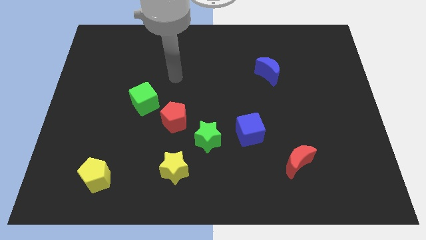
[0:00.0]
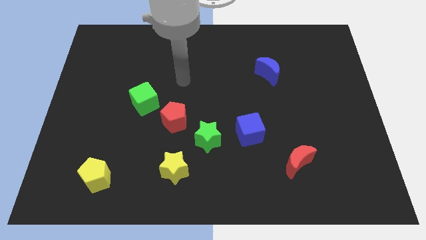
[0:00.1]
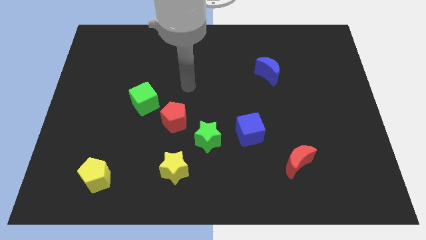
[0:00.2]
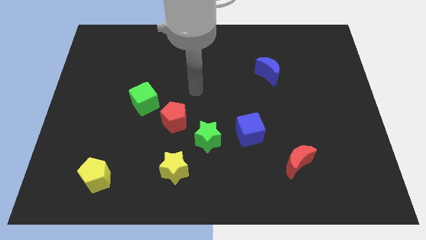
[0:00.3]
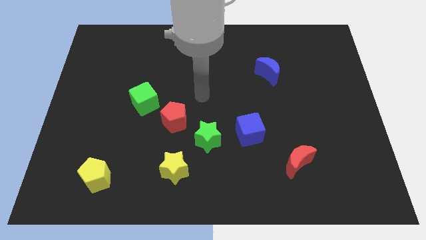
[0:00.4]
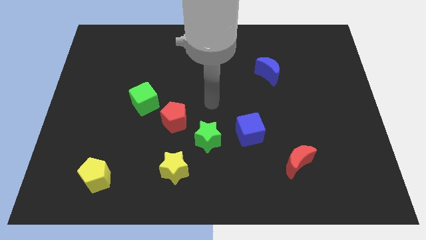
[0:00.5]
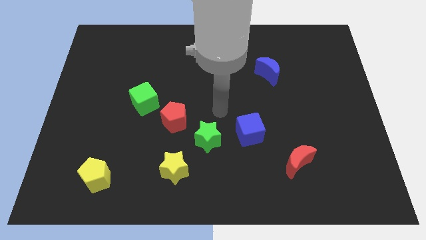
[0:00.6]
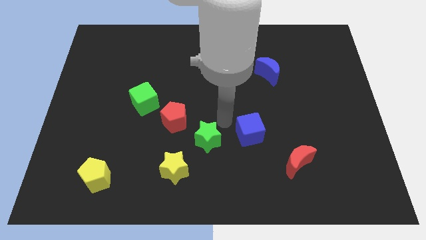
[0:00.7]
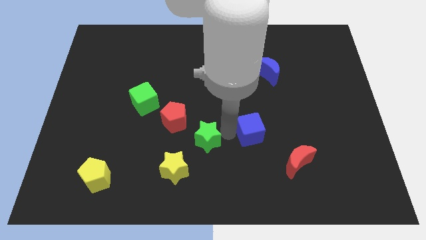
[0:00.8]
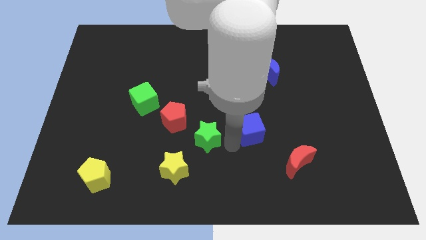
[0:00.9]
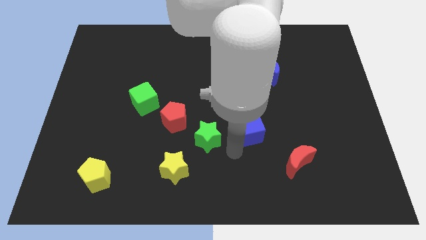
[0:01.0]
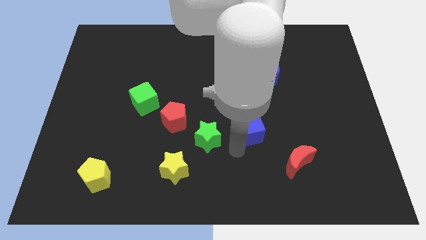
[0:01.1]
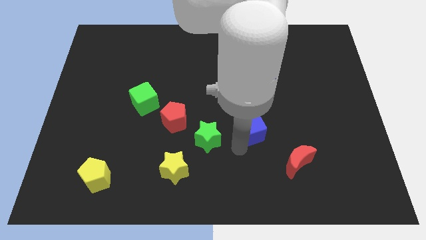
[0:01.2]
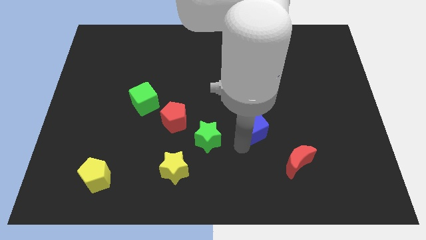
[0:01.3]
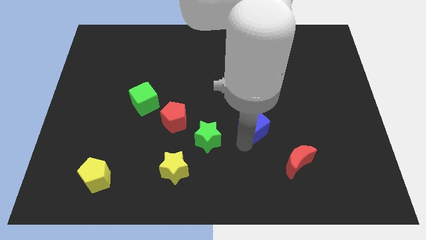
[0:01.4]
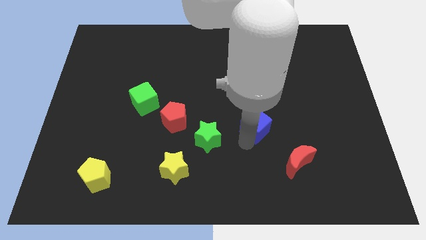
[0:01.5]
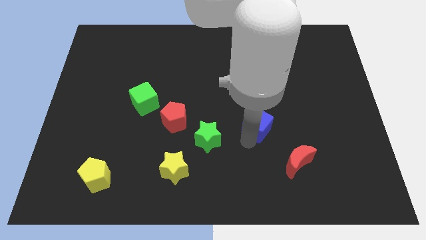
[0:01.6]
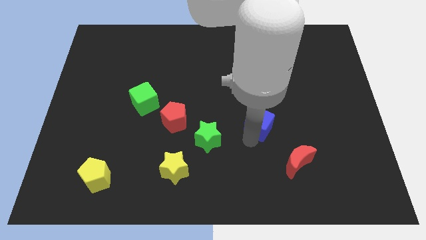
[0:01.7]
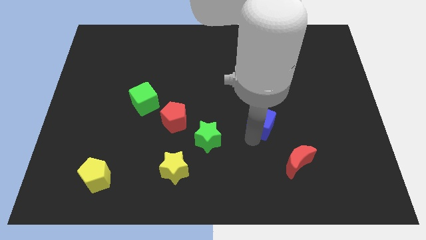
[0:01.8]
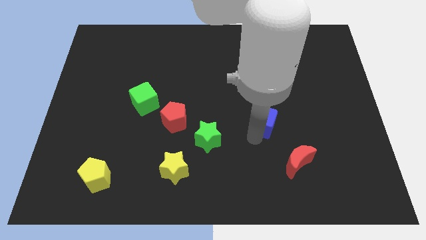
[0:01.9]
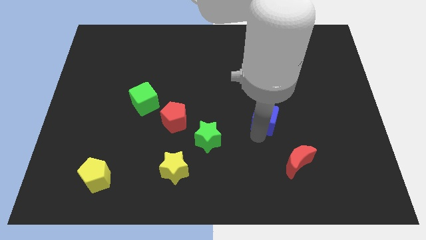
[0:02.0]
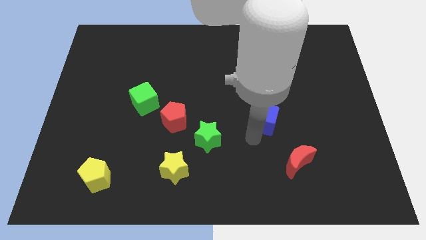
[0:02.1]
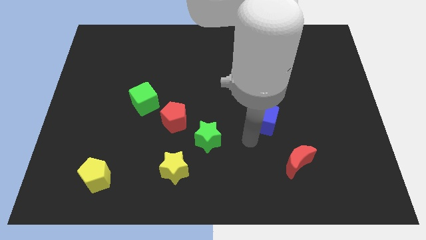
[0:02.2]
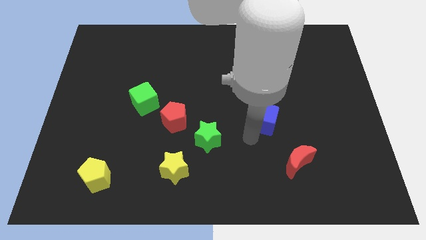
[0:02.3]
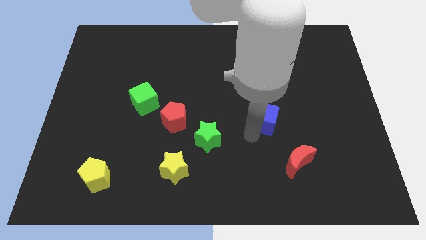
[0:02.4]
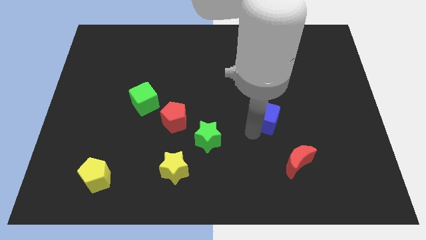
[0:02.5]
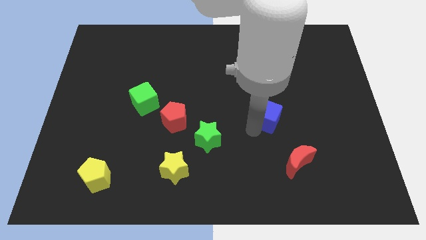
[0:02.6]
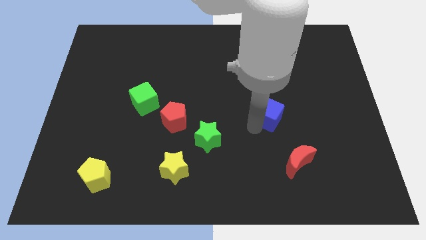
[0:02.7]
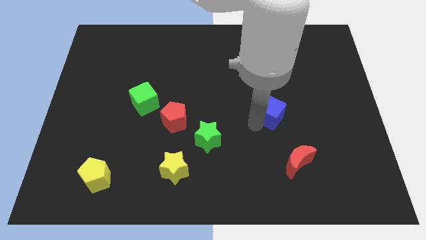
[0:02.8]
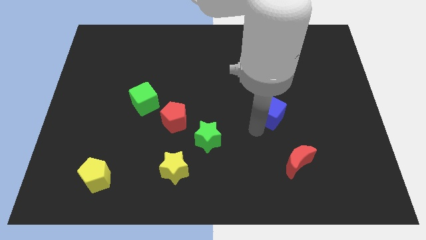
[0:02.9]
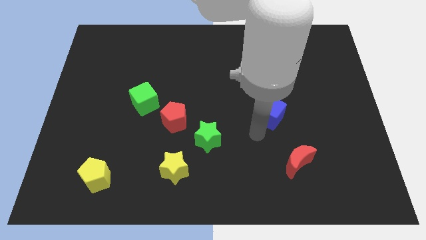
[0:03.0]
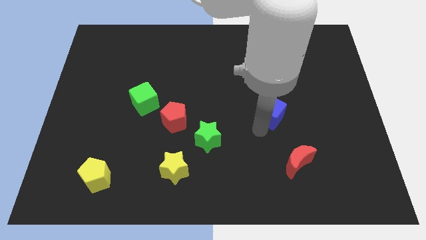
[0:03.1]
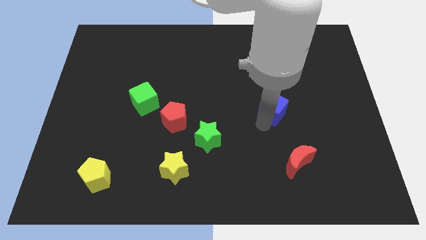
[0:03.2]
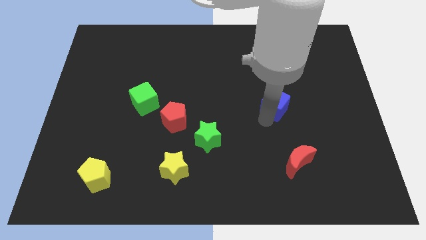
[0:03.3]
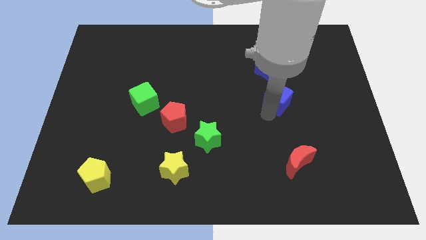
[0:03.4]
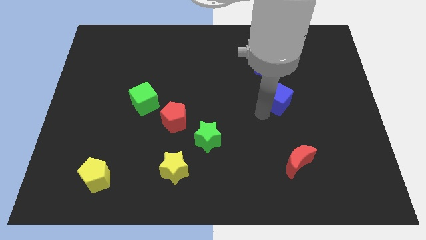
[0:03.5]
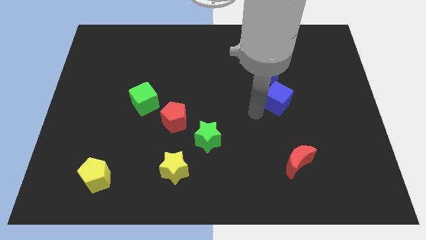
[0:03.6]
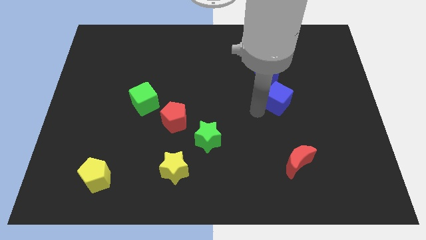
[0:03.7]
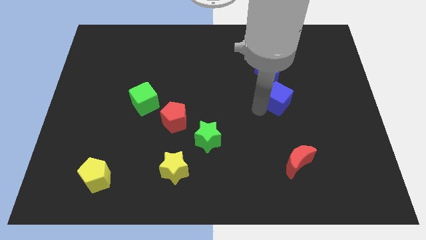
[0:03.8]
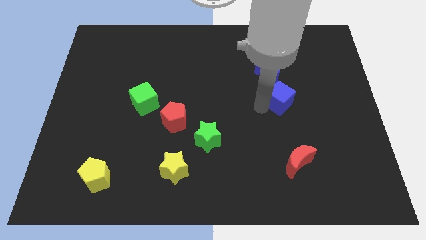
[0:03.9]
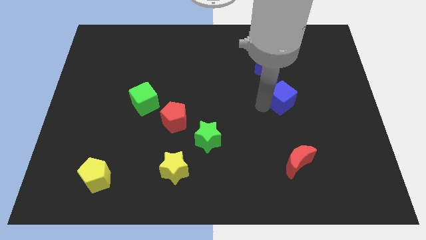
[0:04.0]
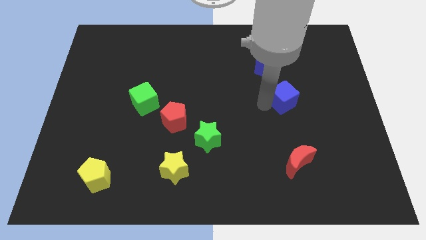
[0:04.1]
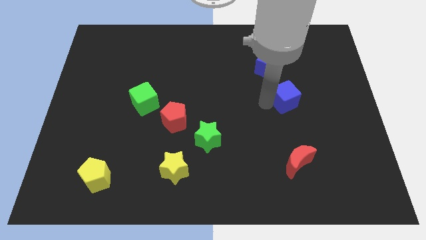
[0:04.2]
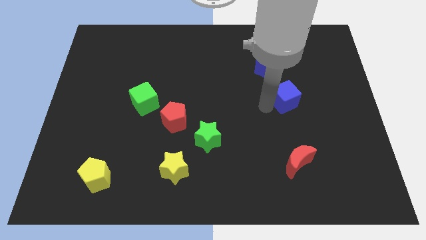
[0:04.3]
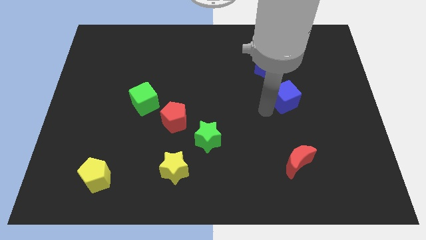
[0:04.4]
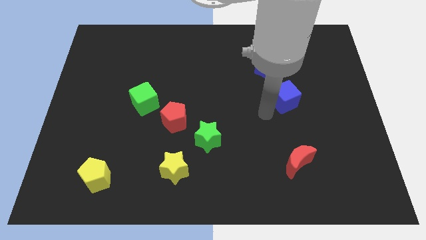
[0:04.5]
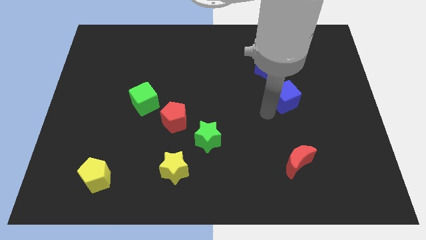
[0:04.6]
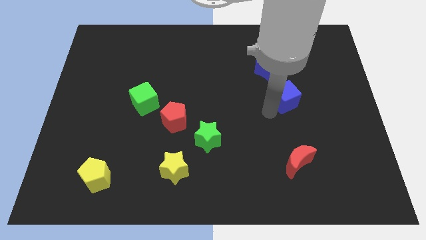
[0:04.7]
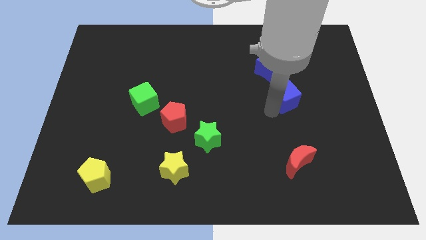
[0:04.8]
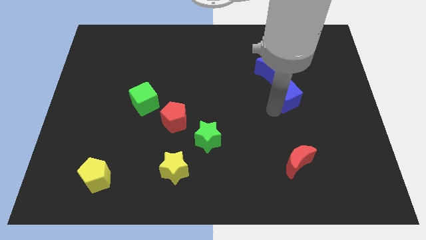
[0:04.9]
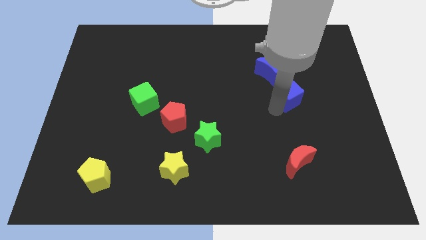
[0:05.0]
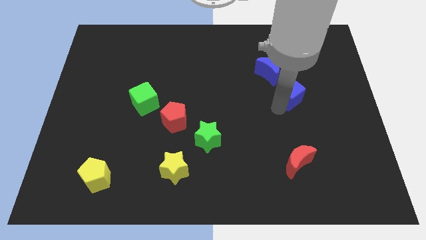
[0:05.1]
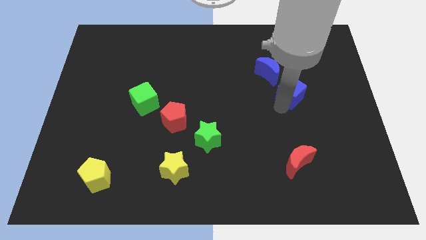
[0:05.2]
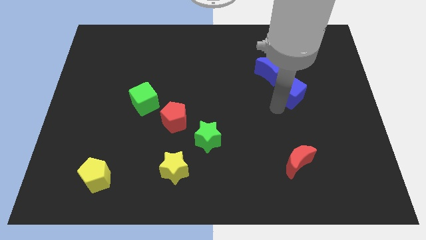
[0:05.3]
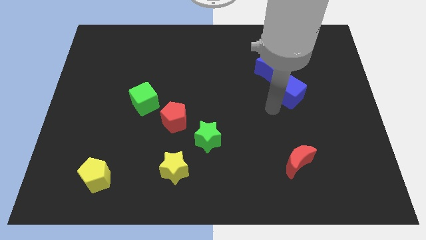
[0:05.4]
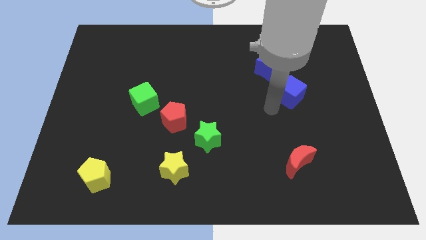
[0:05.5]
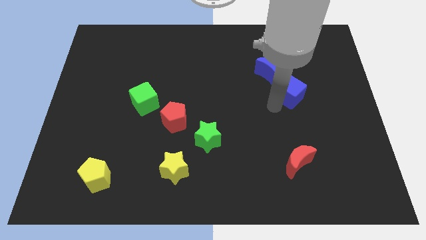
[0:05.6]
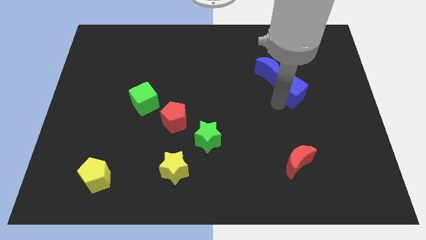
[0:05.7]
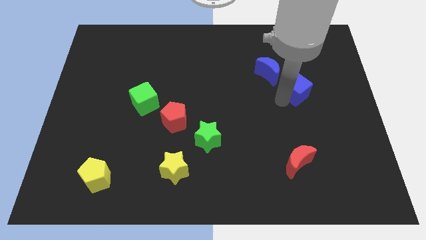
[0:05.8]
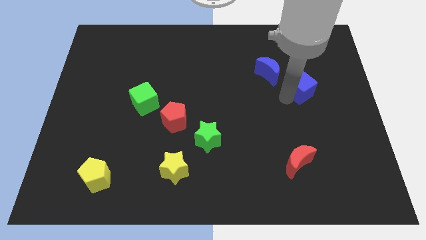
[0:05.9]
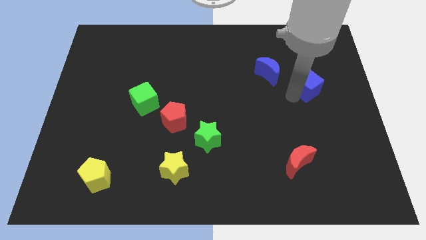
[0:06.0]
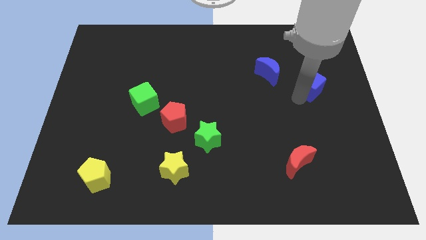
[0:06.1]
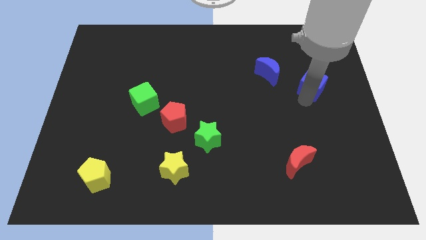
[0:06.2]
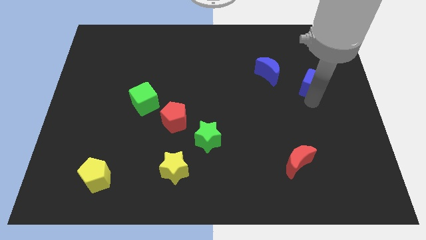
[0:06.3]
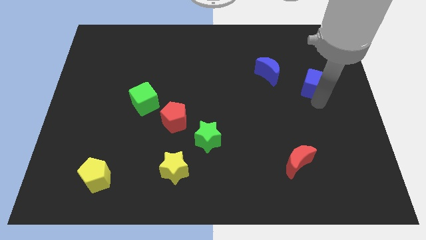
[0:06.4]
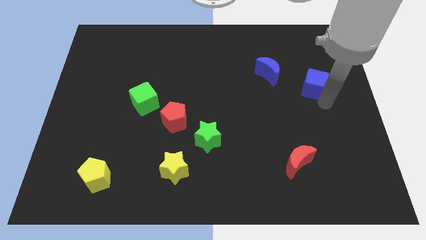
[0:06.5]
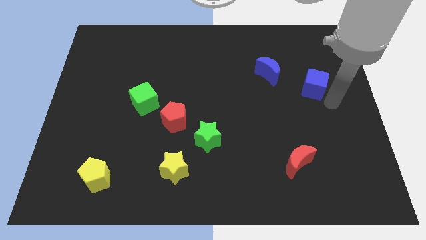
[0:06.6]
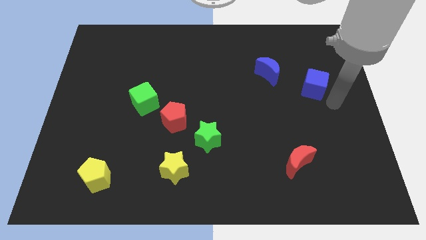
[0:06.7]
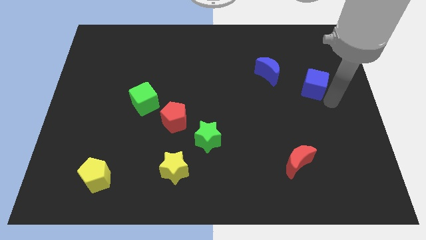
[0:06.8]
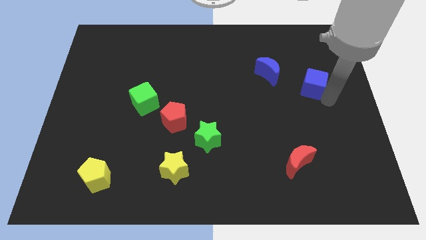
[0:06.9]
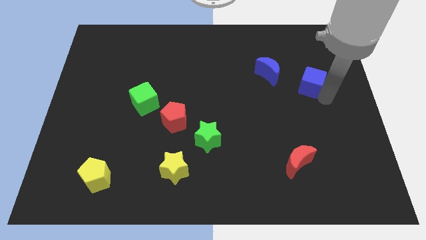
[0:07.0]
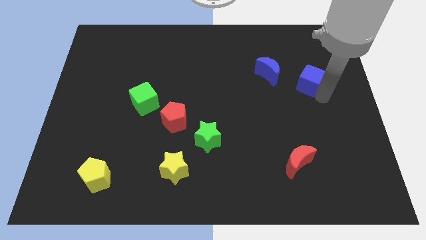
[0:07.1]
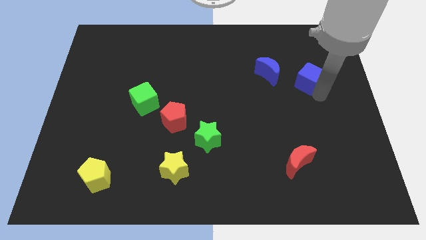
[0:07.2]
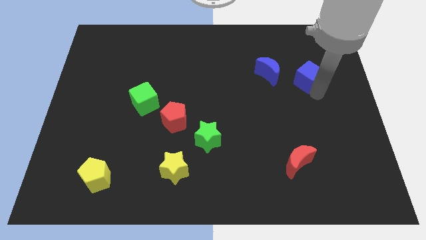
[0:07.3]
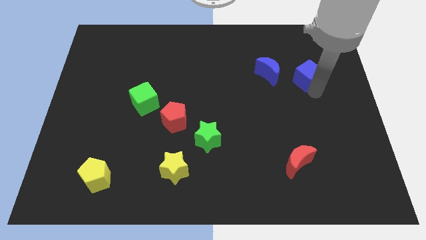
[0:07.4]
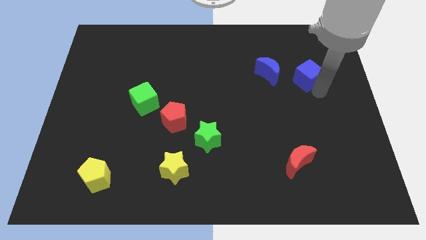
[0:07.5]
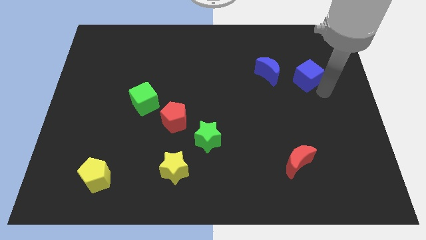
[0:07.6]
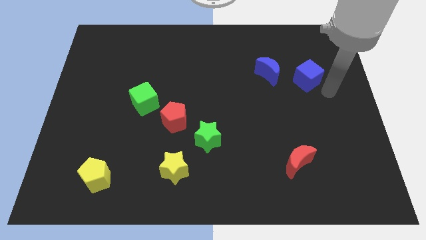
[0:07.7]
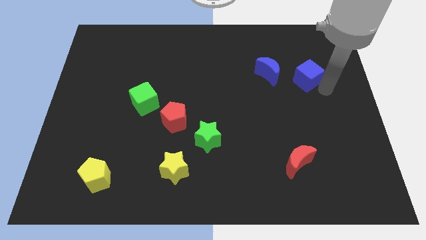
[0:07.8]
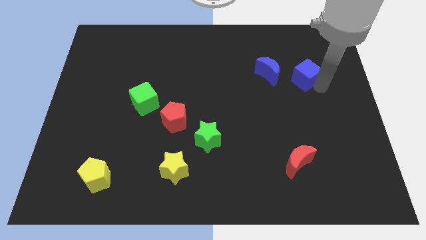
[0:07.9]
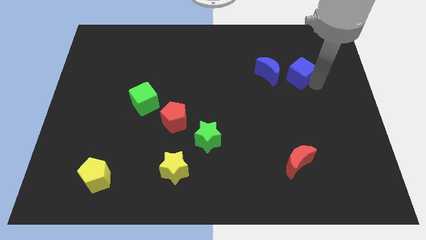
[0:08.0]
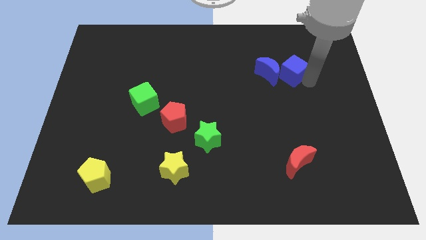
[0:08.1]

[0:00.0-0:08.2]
push the blue cube diagonally up and to the right of the blue moon
